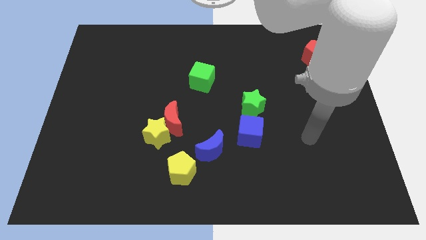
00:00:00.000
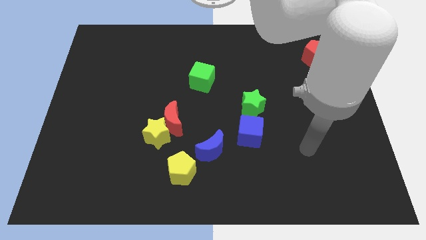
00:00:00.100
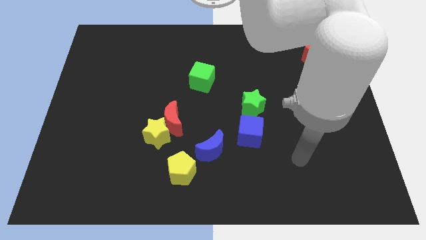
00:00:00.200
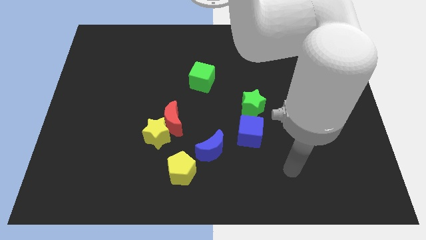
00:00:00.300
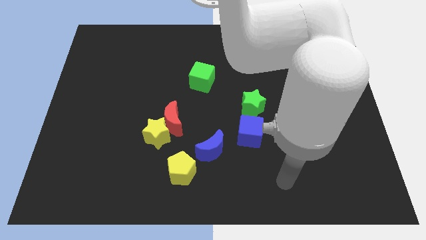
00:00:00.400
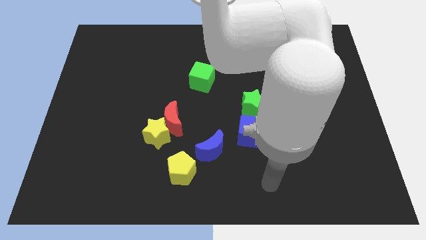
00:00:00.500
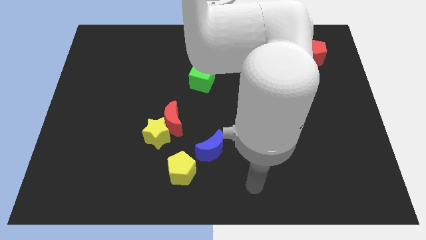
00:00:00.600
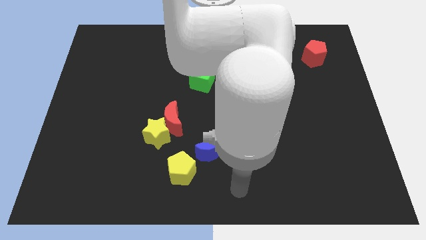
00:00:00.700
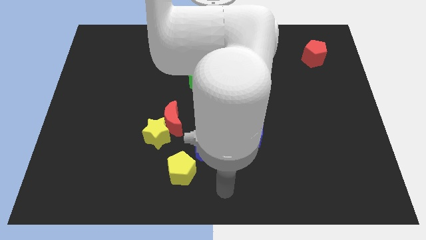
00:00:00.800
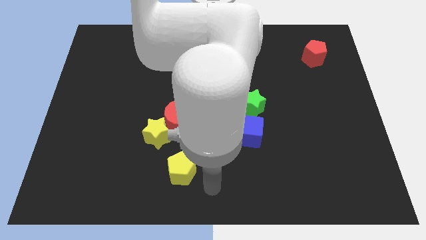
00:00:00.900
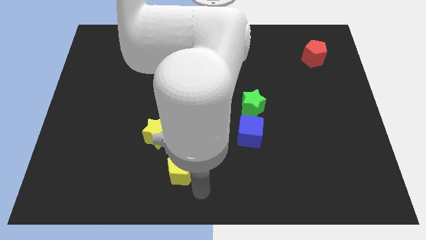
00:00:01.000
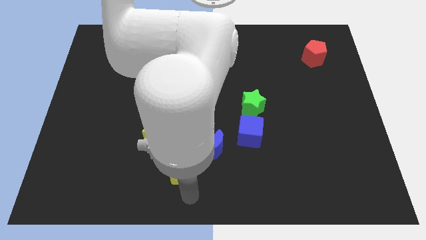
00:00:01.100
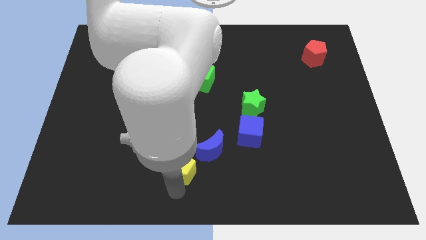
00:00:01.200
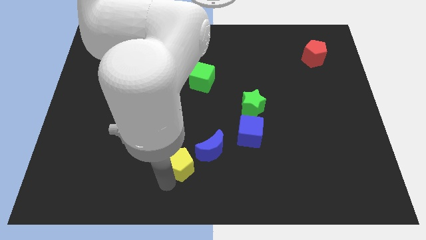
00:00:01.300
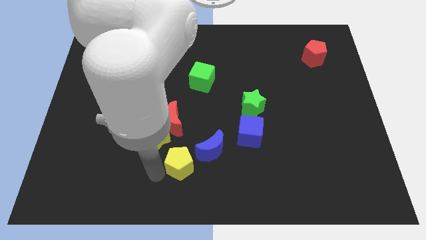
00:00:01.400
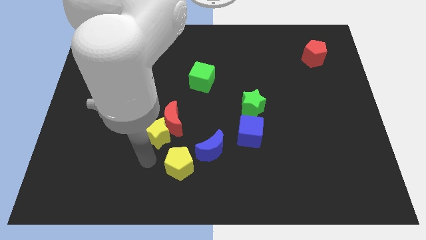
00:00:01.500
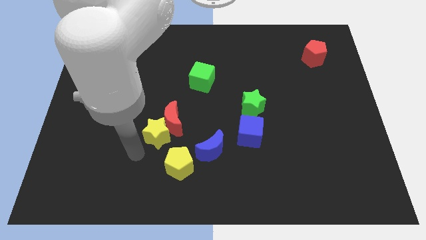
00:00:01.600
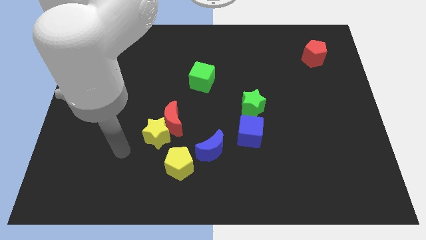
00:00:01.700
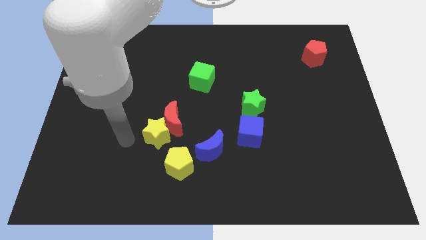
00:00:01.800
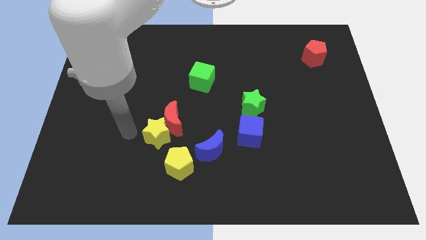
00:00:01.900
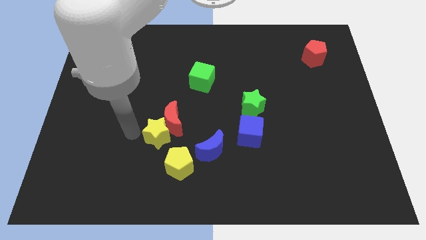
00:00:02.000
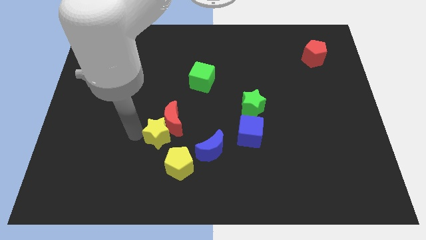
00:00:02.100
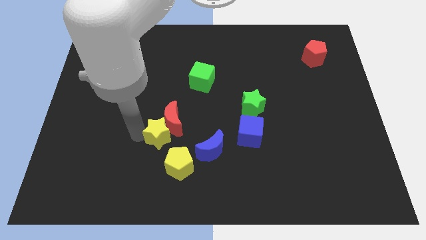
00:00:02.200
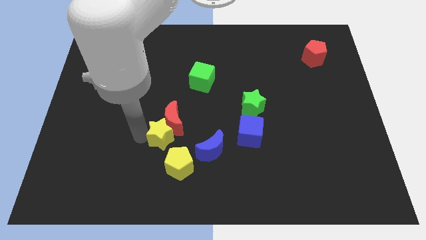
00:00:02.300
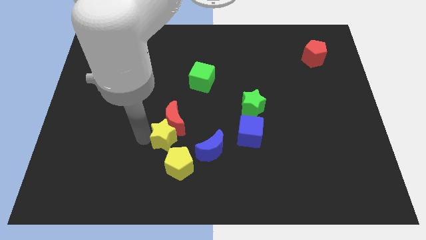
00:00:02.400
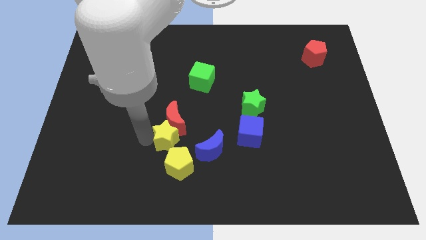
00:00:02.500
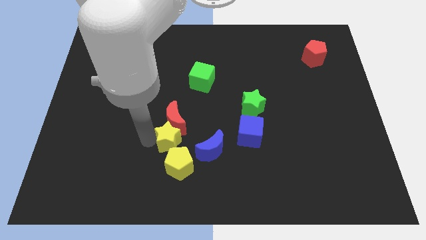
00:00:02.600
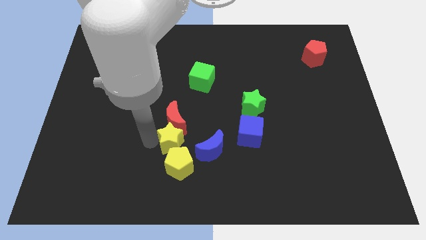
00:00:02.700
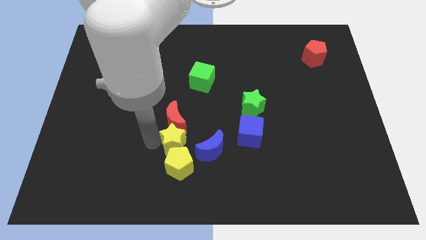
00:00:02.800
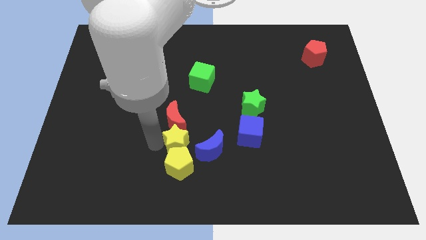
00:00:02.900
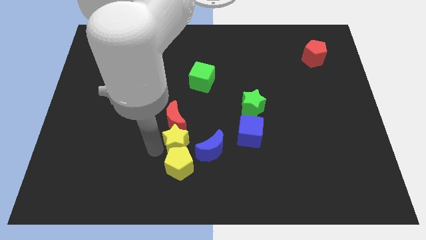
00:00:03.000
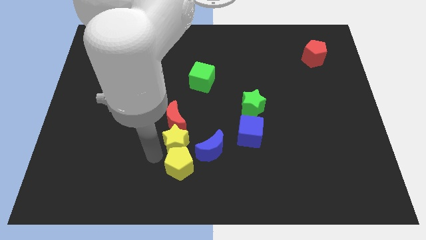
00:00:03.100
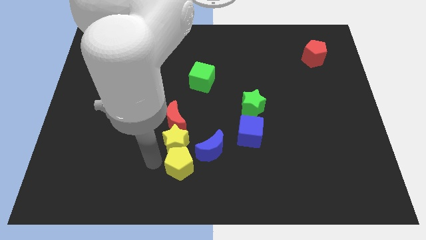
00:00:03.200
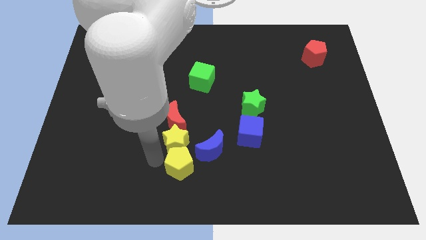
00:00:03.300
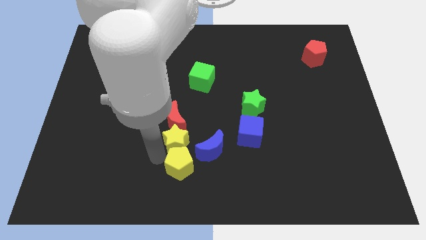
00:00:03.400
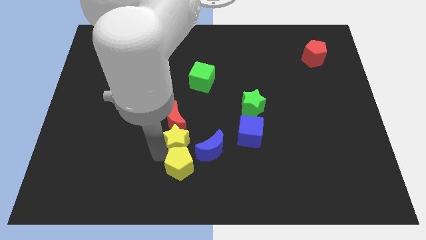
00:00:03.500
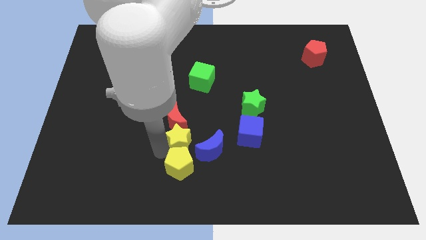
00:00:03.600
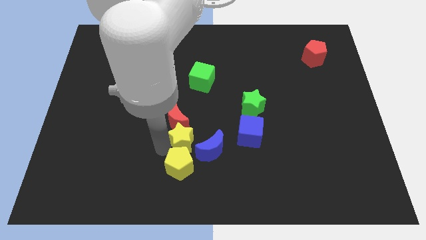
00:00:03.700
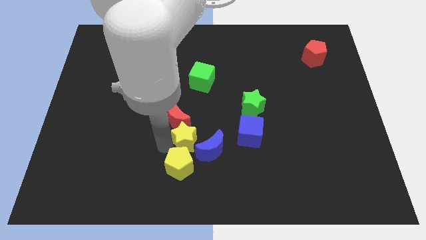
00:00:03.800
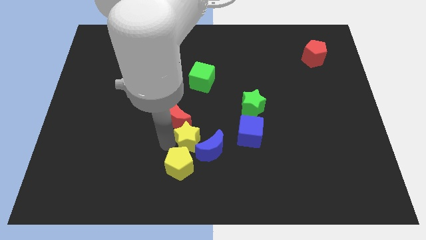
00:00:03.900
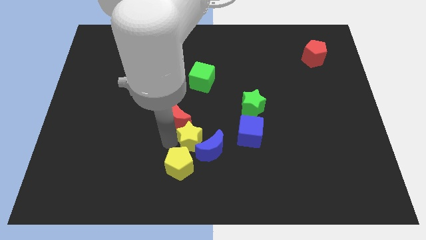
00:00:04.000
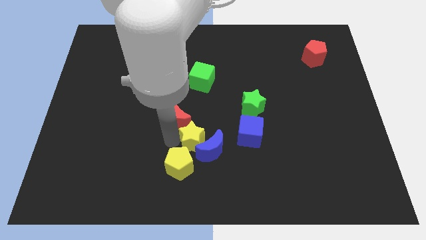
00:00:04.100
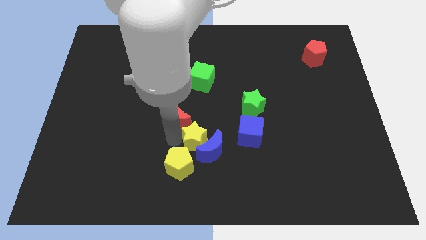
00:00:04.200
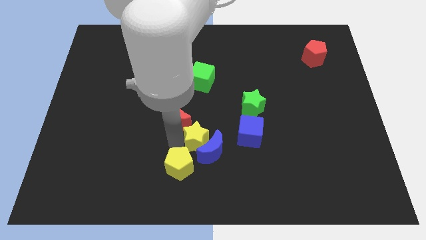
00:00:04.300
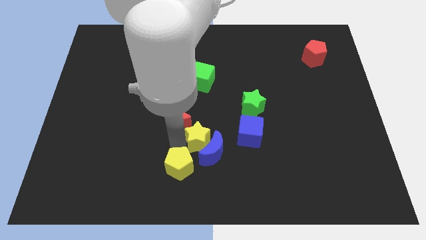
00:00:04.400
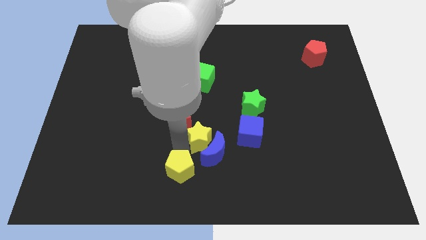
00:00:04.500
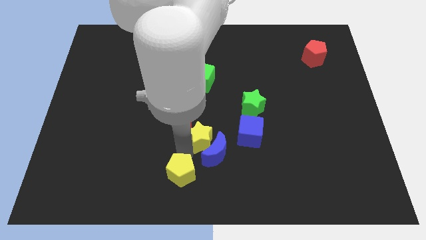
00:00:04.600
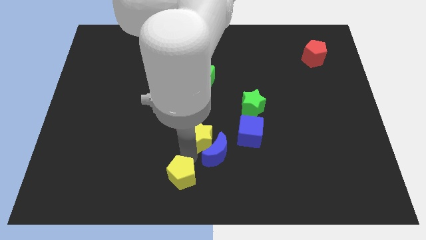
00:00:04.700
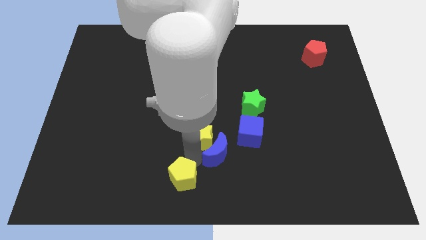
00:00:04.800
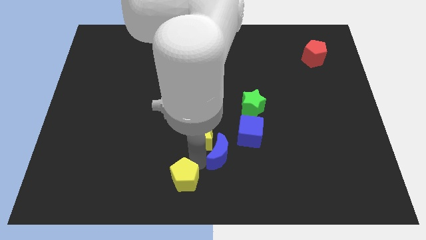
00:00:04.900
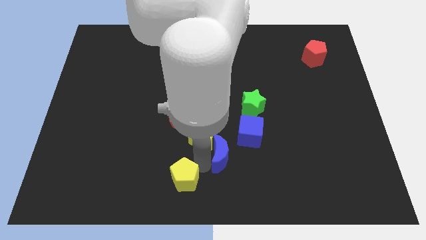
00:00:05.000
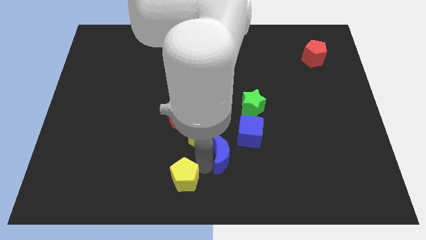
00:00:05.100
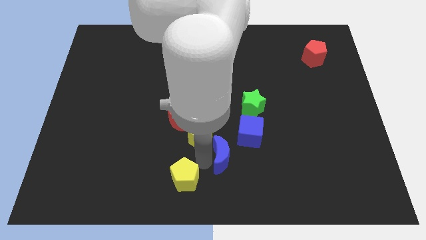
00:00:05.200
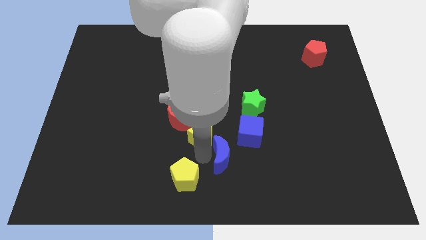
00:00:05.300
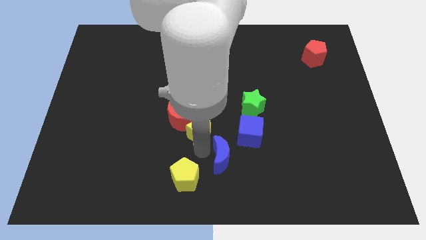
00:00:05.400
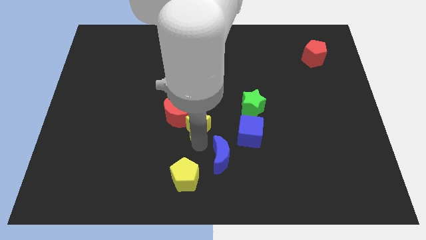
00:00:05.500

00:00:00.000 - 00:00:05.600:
move the yellow star slightly upwards and then right

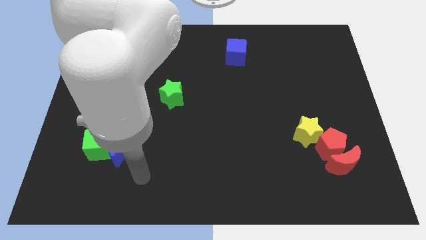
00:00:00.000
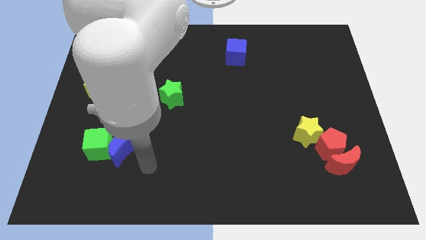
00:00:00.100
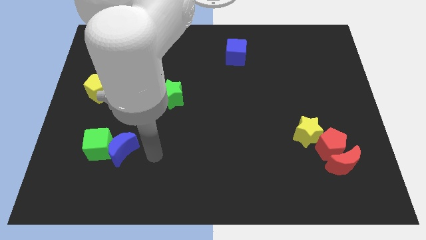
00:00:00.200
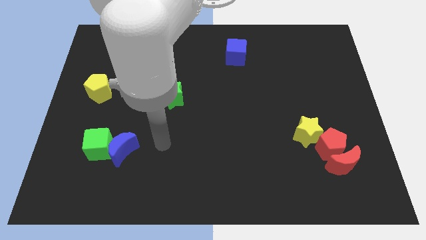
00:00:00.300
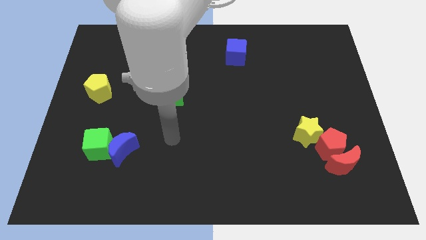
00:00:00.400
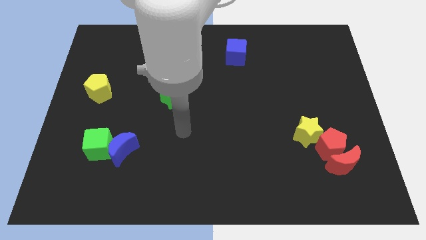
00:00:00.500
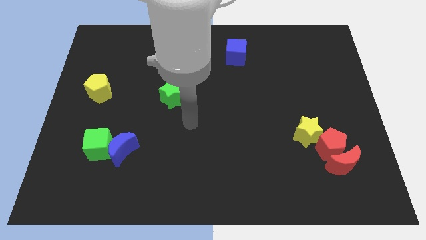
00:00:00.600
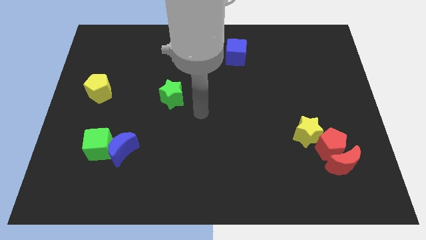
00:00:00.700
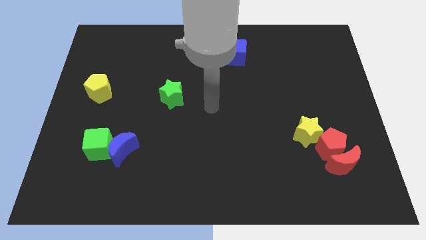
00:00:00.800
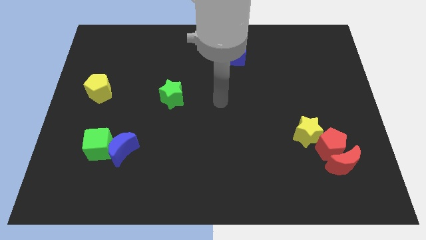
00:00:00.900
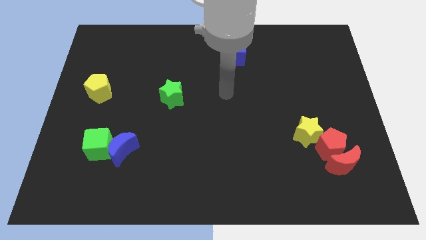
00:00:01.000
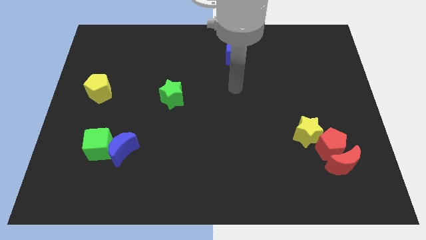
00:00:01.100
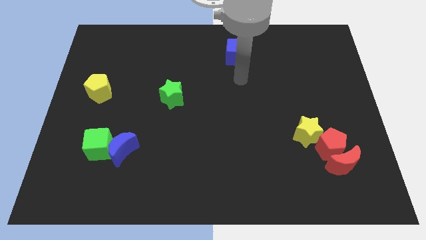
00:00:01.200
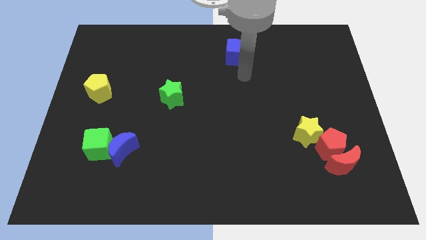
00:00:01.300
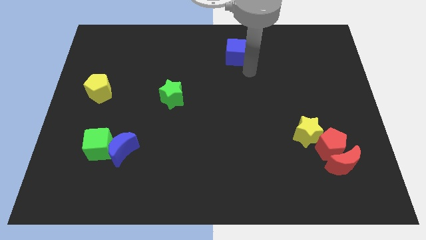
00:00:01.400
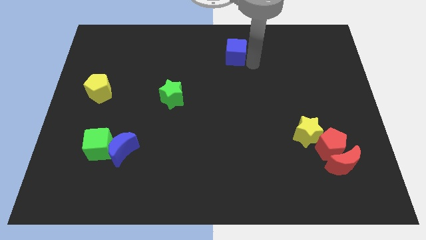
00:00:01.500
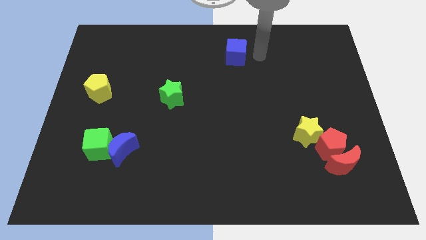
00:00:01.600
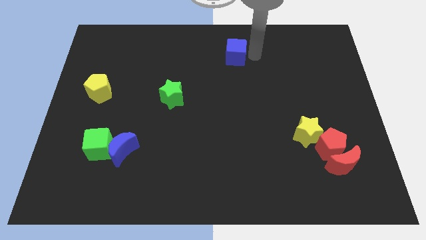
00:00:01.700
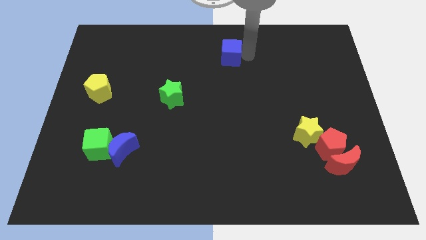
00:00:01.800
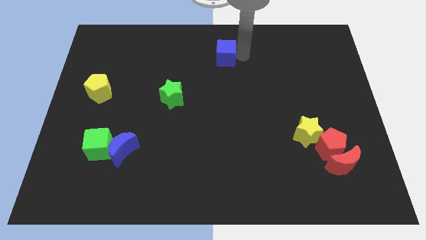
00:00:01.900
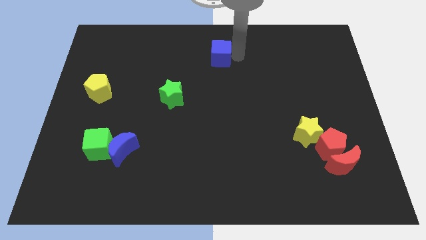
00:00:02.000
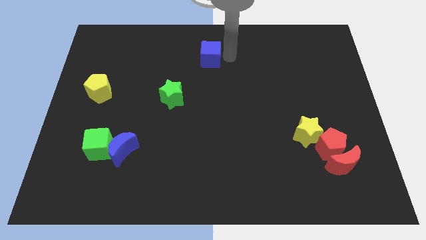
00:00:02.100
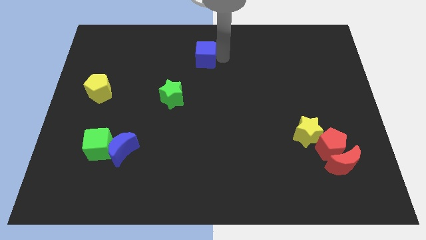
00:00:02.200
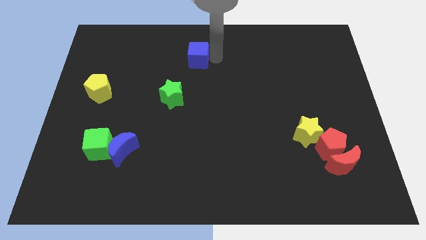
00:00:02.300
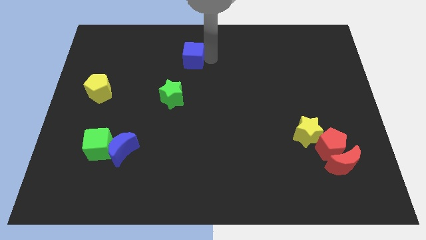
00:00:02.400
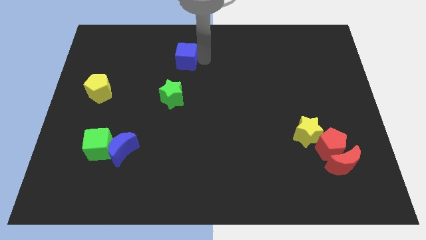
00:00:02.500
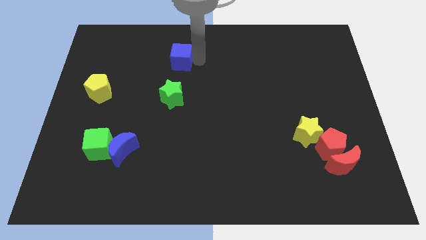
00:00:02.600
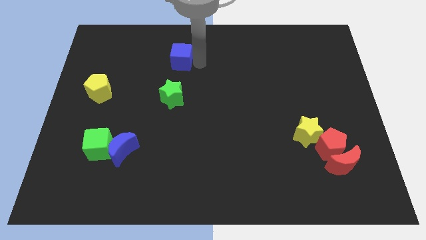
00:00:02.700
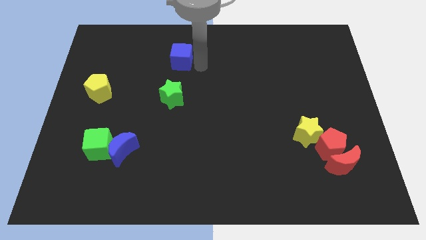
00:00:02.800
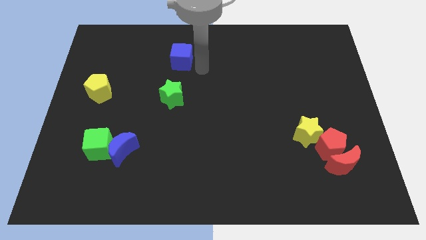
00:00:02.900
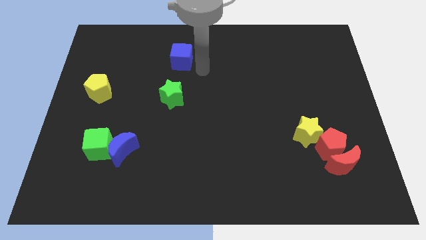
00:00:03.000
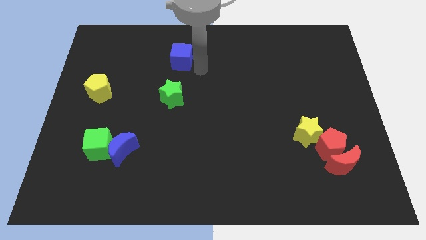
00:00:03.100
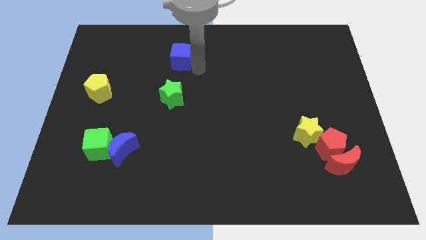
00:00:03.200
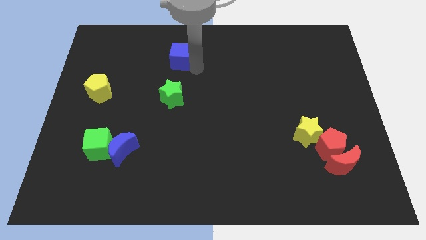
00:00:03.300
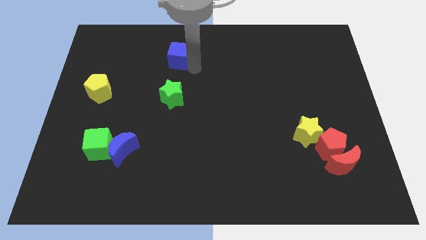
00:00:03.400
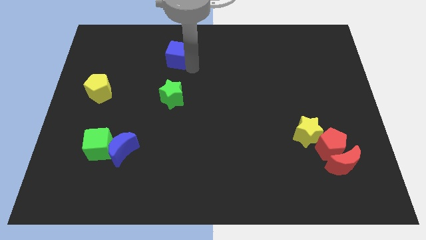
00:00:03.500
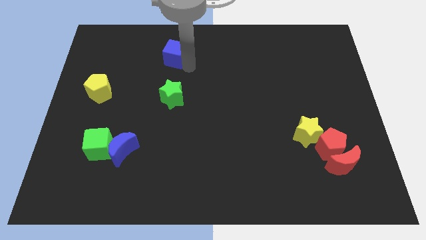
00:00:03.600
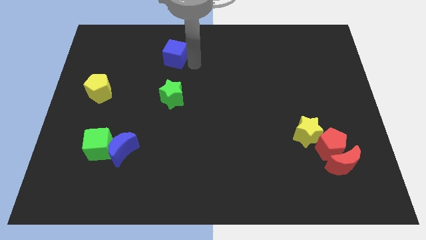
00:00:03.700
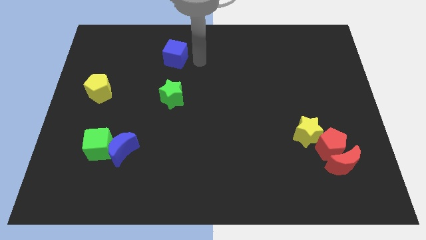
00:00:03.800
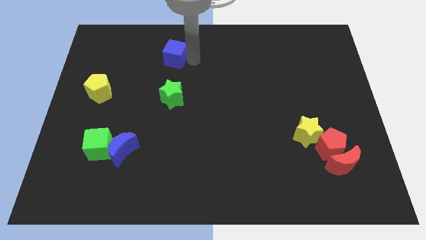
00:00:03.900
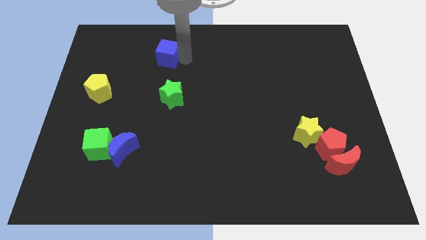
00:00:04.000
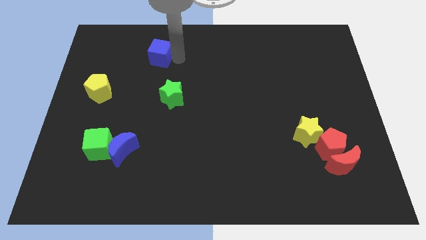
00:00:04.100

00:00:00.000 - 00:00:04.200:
move the blue cube left
